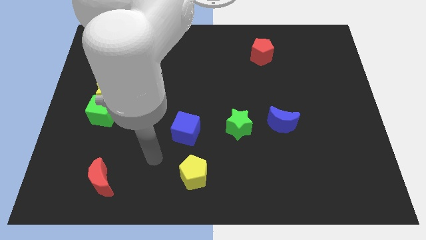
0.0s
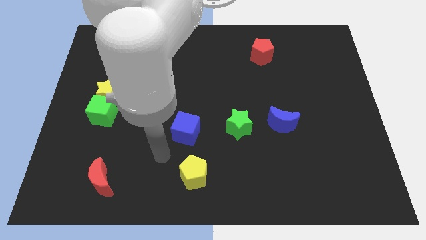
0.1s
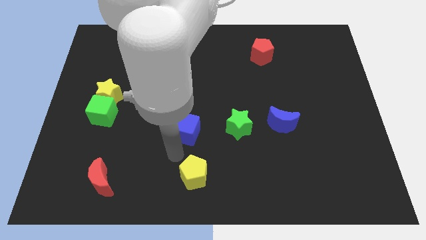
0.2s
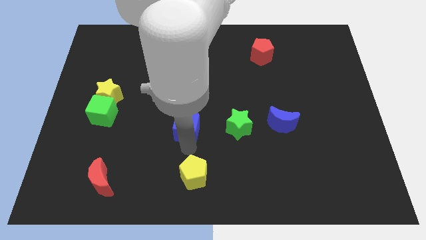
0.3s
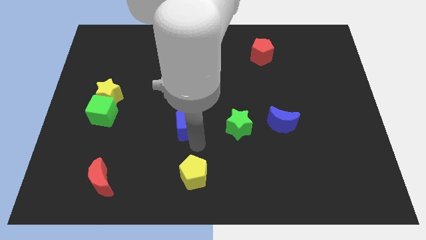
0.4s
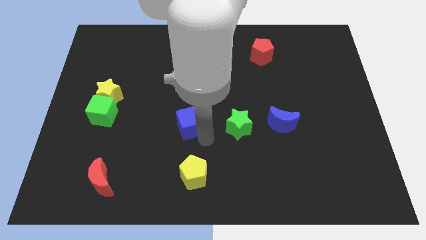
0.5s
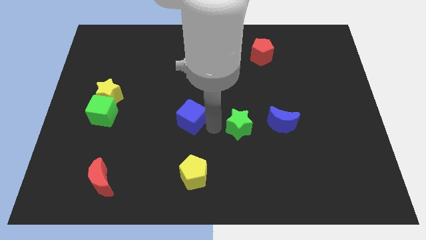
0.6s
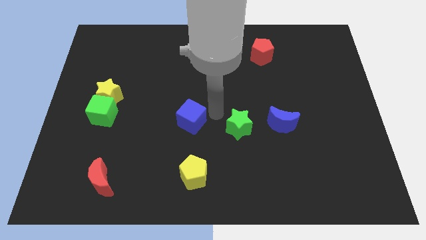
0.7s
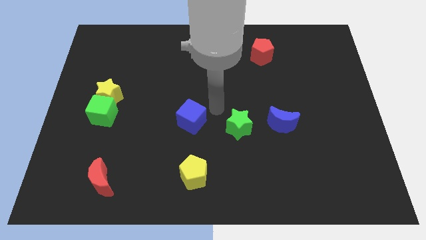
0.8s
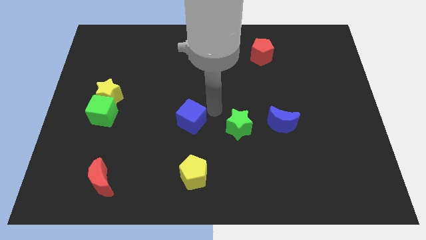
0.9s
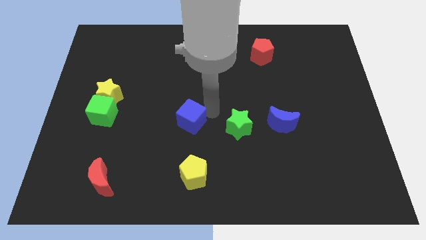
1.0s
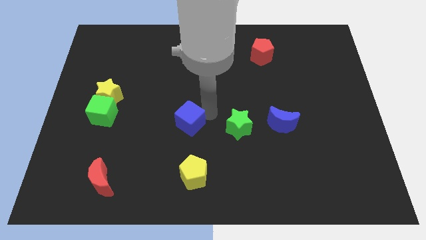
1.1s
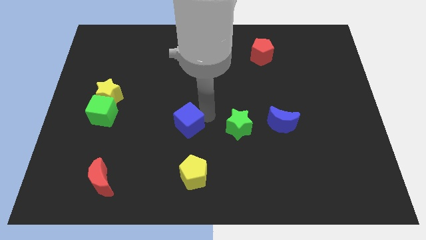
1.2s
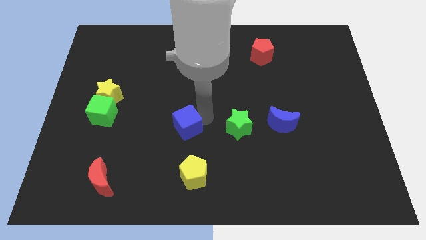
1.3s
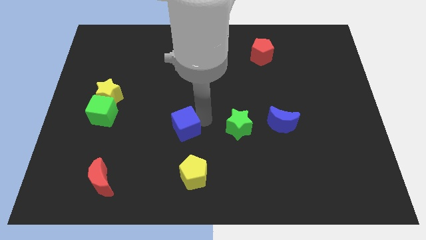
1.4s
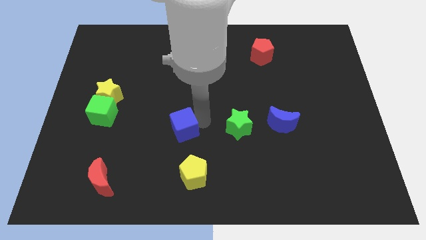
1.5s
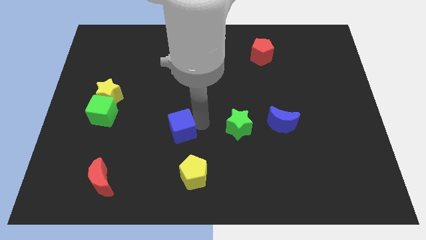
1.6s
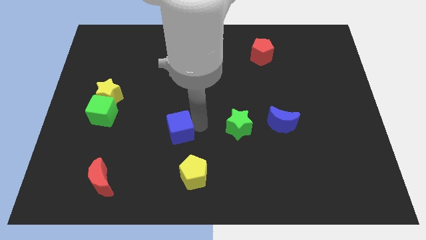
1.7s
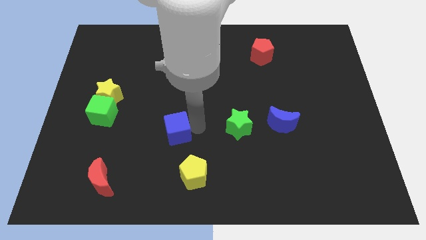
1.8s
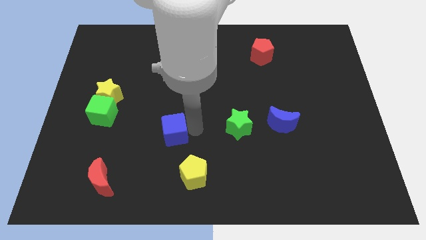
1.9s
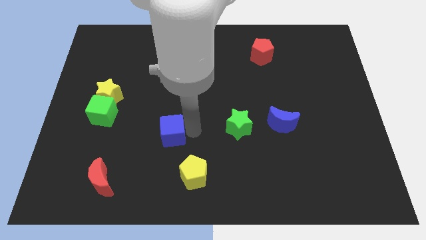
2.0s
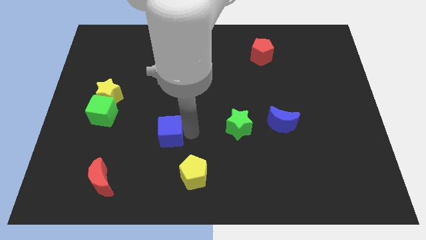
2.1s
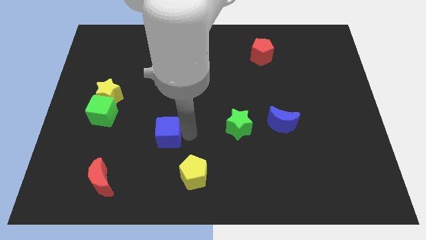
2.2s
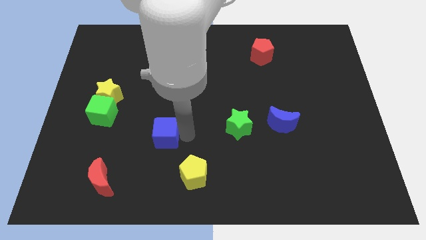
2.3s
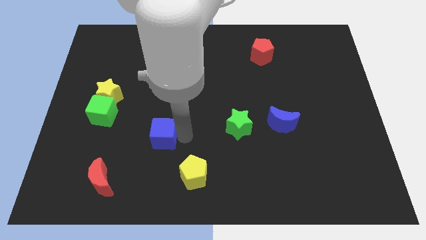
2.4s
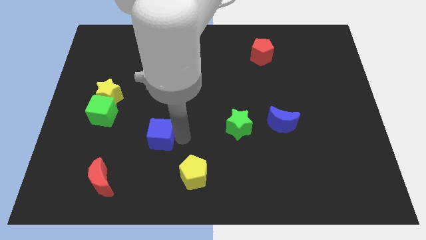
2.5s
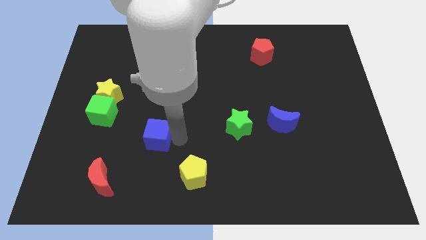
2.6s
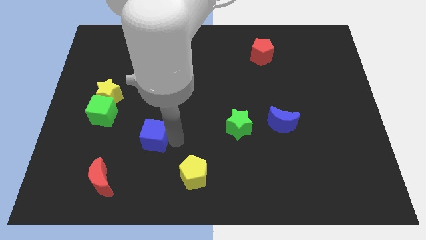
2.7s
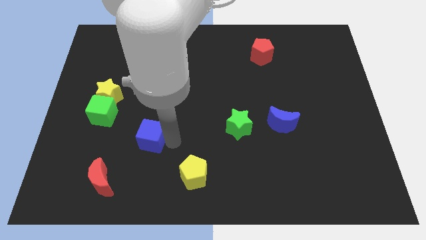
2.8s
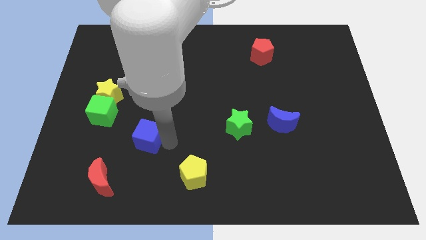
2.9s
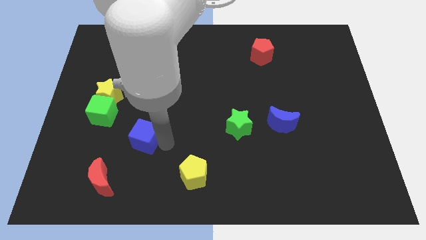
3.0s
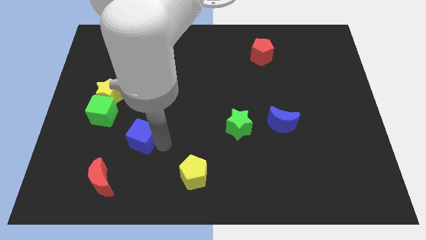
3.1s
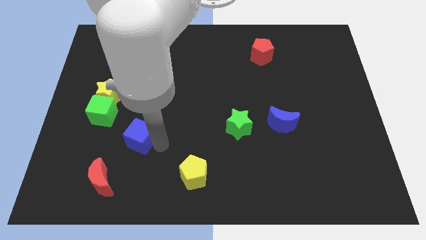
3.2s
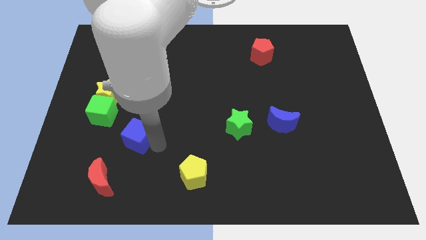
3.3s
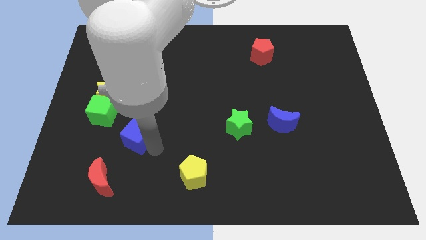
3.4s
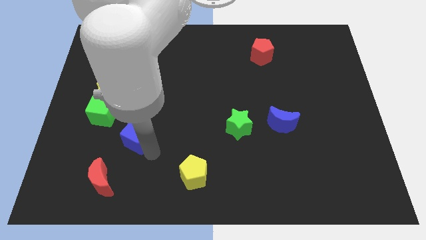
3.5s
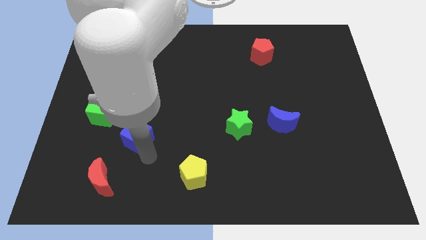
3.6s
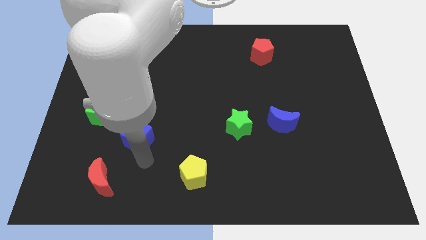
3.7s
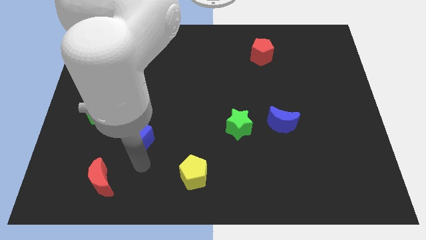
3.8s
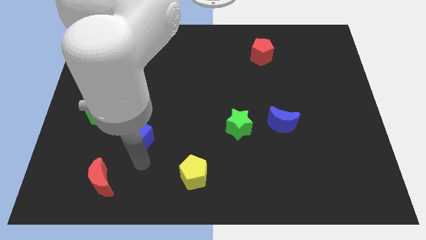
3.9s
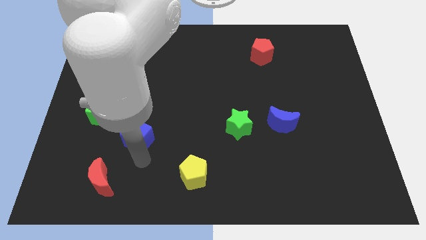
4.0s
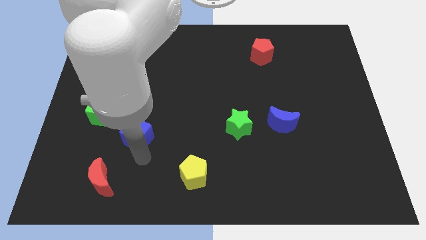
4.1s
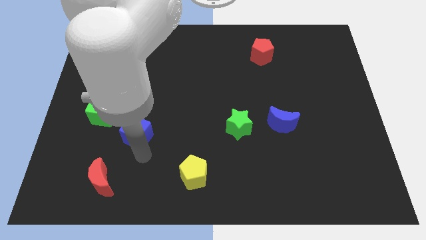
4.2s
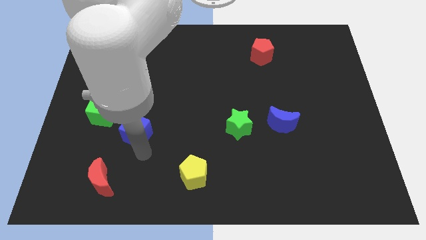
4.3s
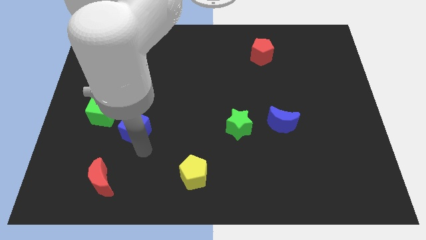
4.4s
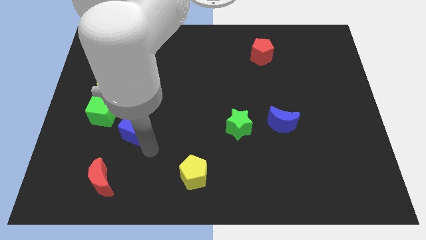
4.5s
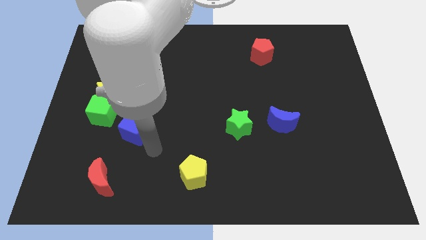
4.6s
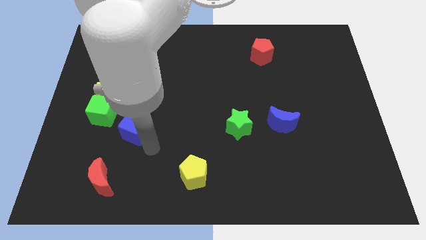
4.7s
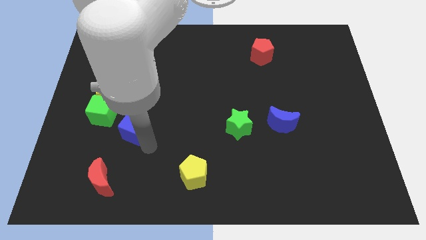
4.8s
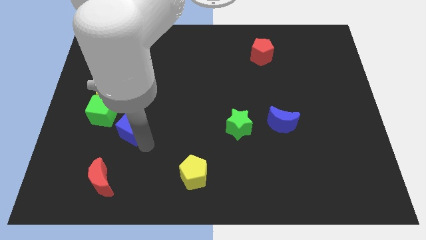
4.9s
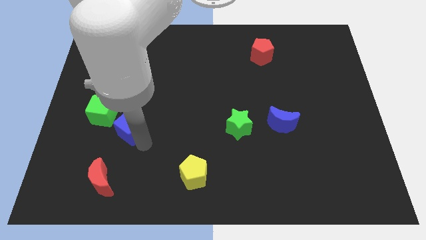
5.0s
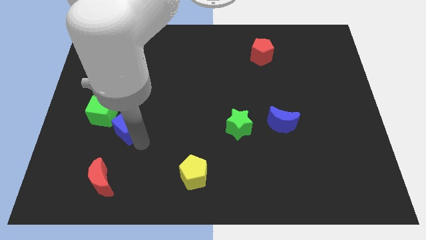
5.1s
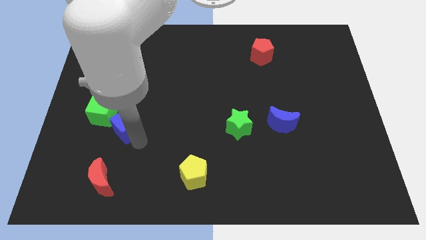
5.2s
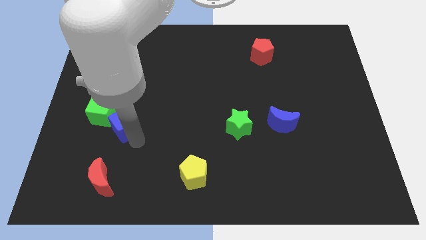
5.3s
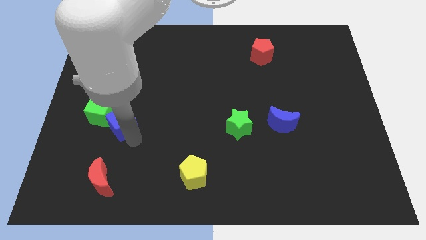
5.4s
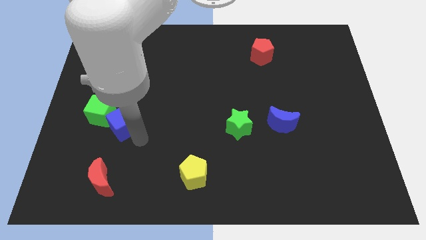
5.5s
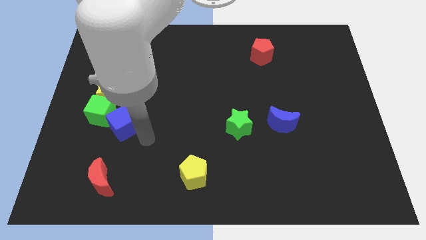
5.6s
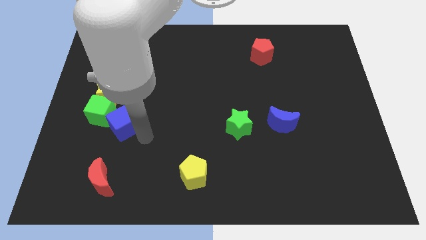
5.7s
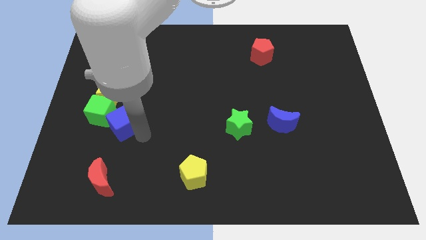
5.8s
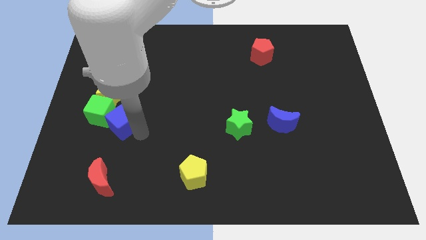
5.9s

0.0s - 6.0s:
move the blue cube to the green cube

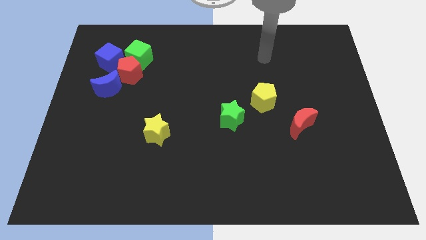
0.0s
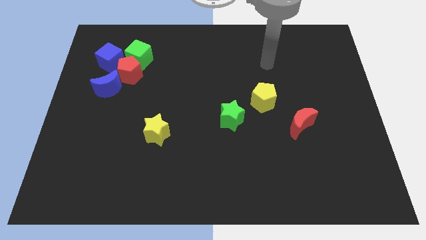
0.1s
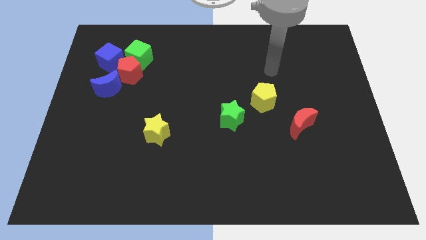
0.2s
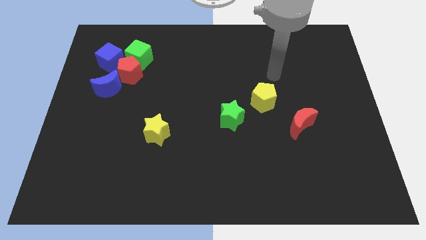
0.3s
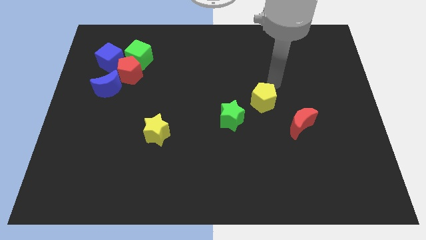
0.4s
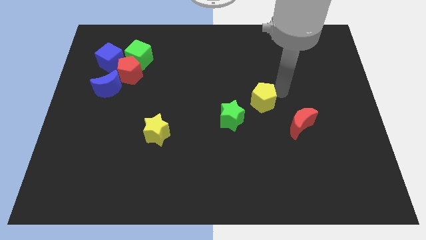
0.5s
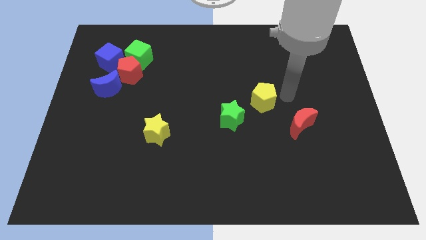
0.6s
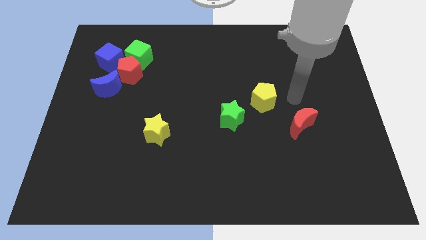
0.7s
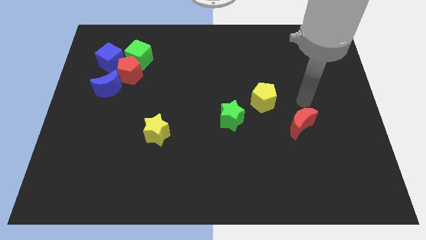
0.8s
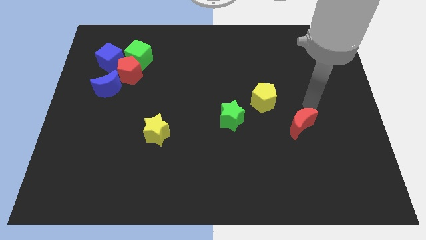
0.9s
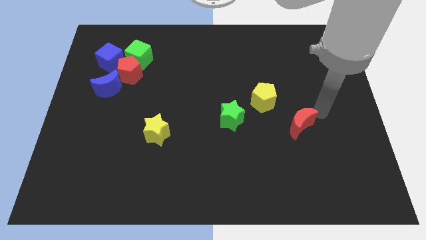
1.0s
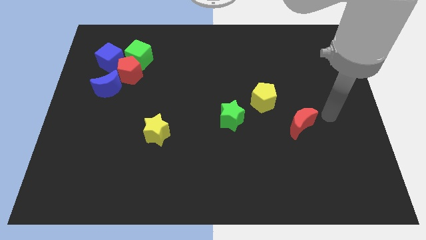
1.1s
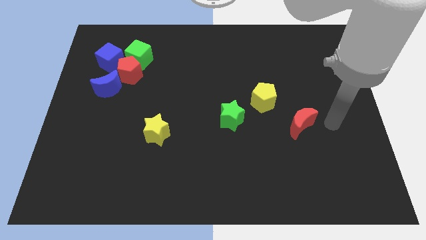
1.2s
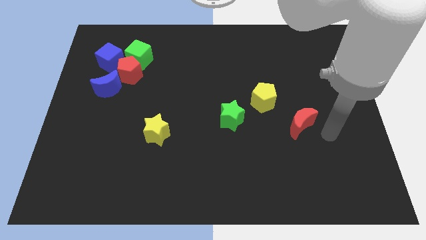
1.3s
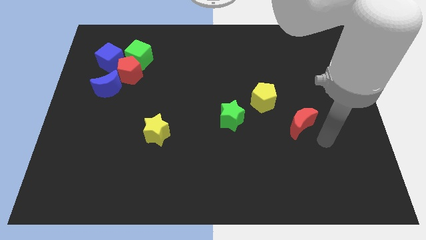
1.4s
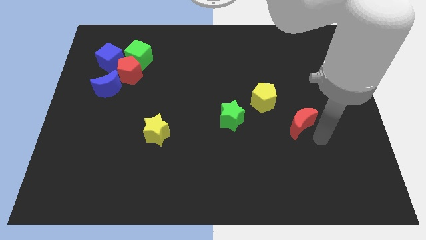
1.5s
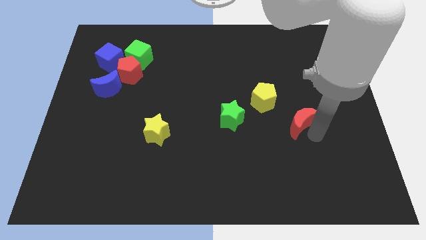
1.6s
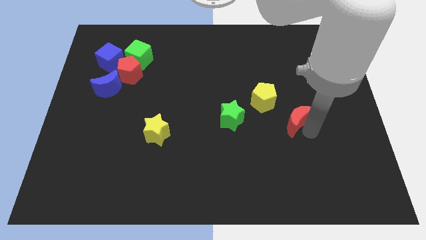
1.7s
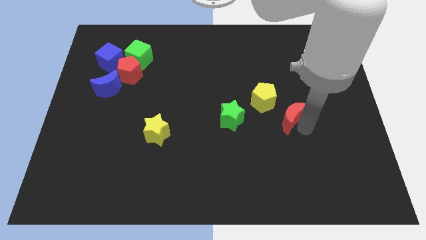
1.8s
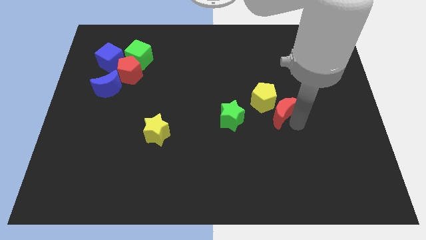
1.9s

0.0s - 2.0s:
push the red moon close to the yellow pentagon
